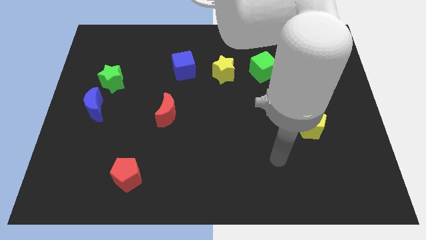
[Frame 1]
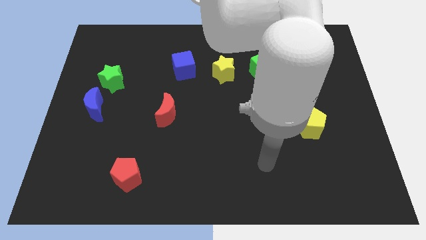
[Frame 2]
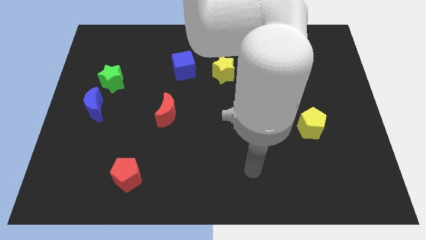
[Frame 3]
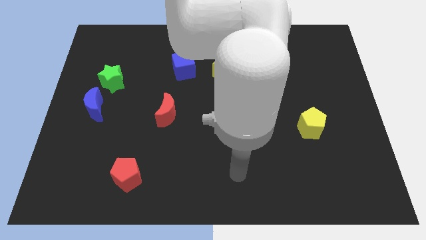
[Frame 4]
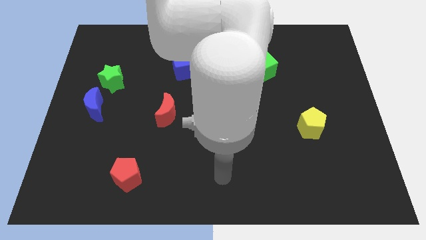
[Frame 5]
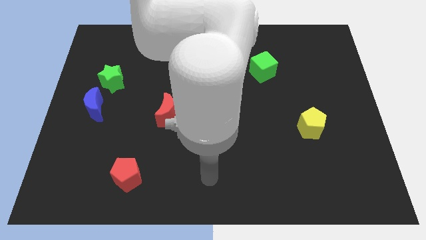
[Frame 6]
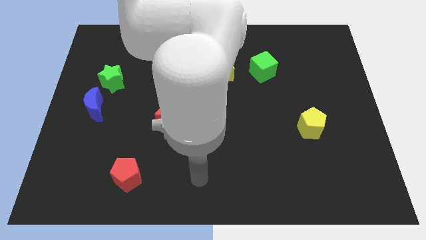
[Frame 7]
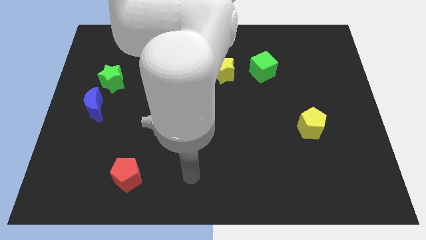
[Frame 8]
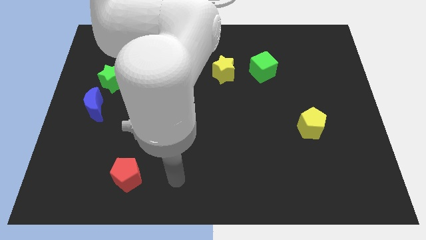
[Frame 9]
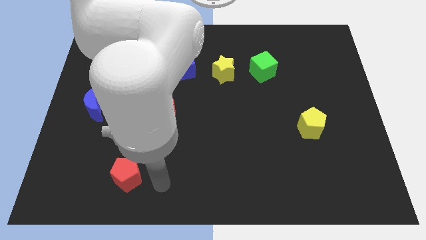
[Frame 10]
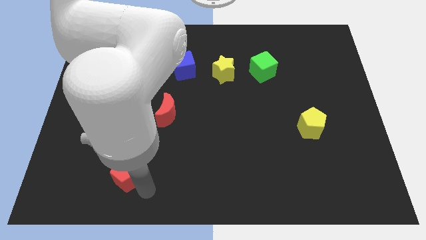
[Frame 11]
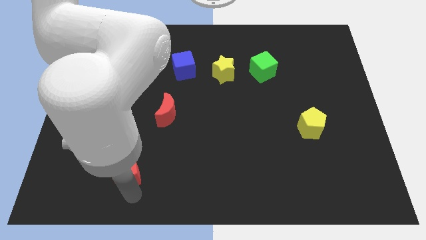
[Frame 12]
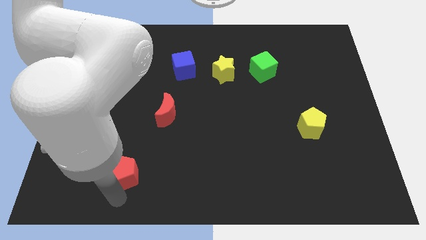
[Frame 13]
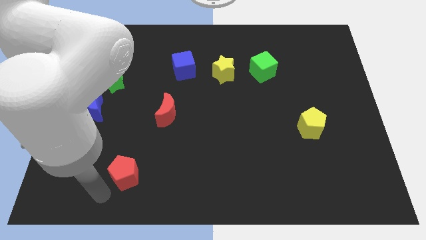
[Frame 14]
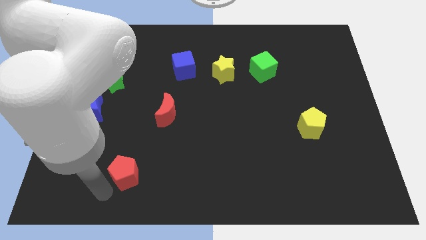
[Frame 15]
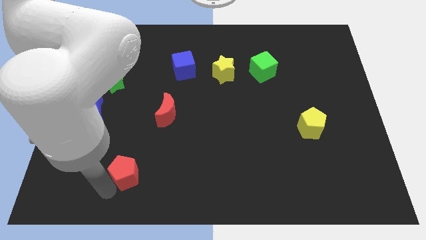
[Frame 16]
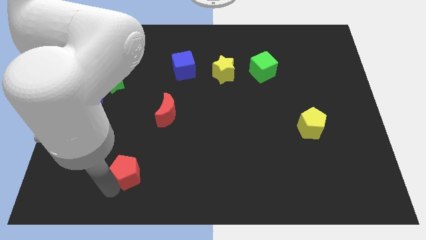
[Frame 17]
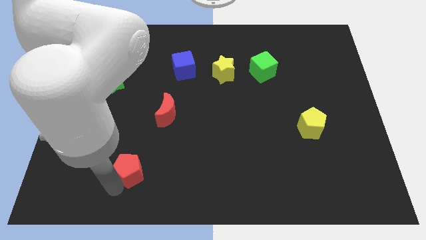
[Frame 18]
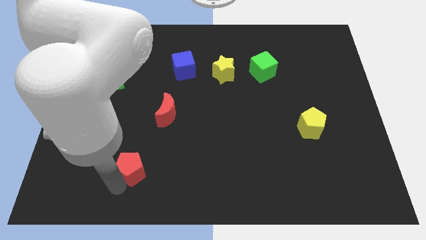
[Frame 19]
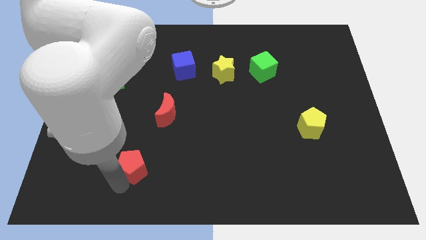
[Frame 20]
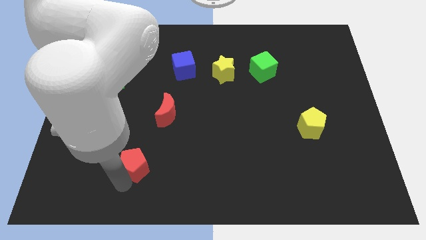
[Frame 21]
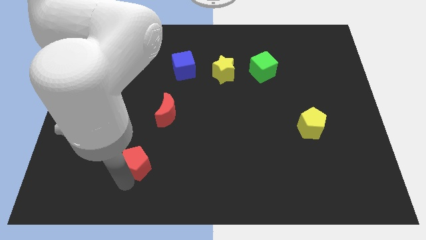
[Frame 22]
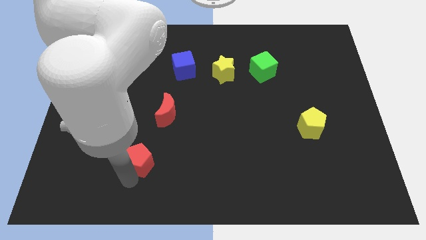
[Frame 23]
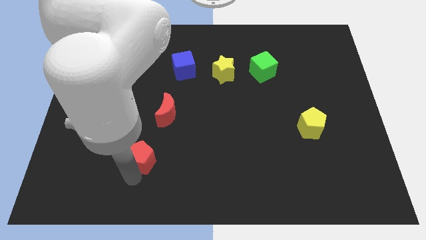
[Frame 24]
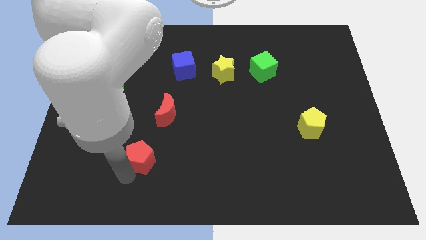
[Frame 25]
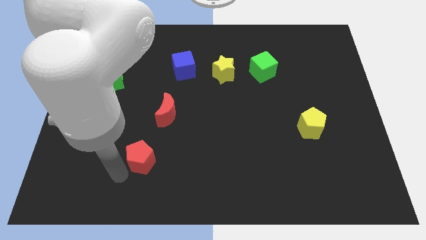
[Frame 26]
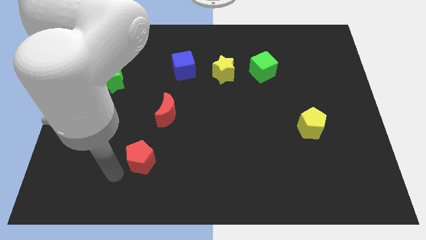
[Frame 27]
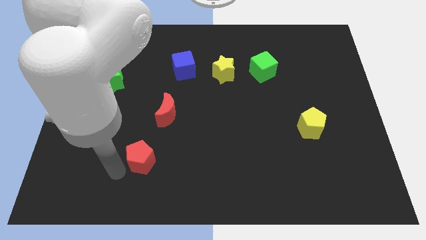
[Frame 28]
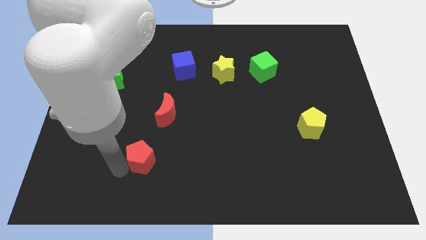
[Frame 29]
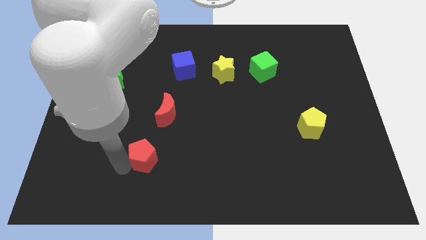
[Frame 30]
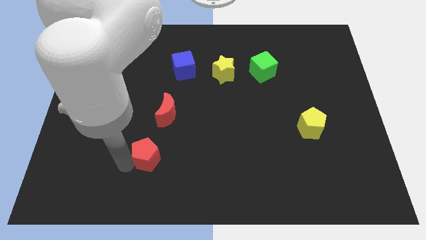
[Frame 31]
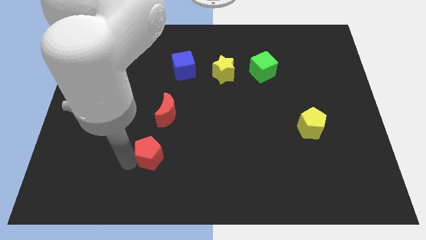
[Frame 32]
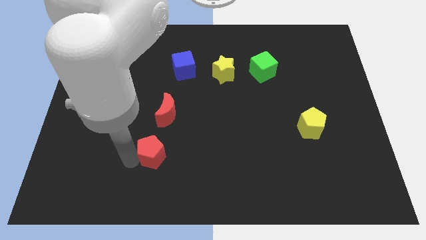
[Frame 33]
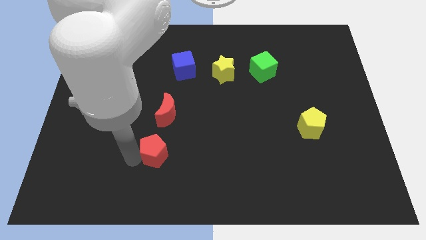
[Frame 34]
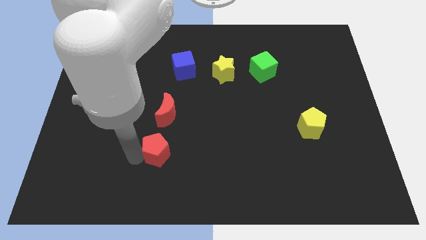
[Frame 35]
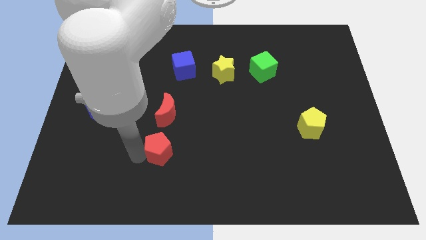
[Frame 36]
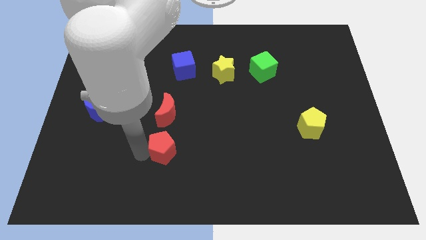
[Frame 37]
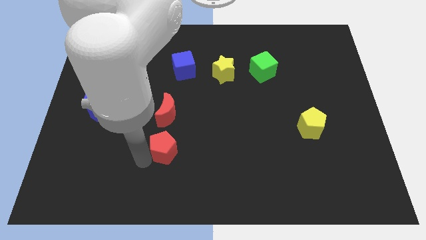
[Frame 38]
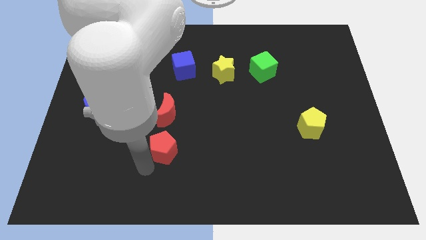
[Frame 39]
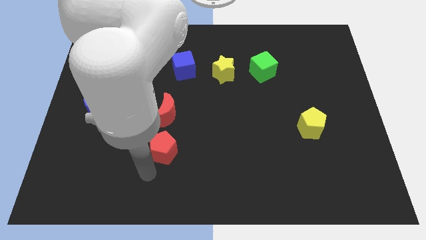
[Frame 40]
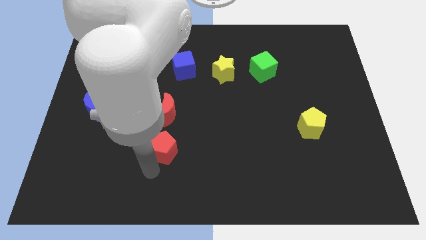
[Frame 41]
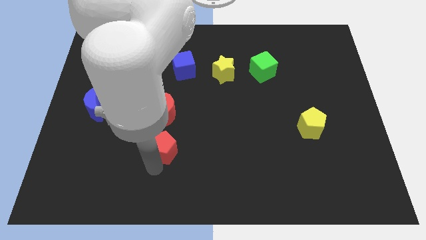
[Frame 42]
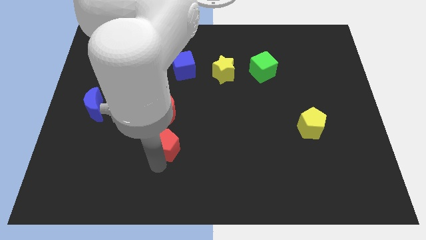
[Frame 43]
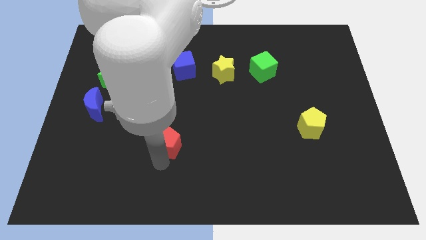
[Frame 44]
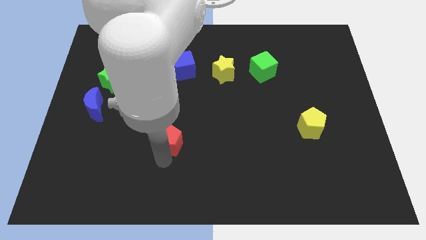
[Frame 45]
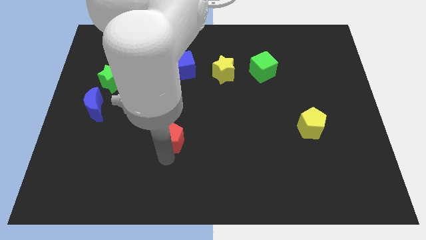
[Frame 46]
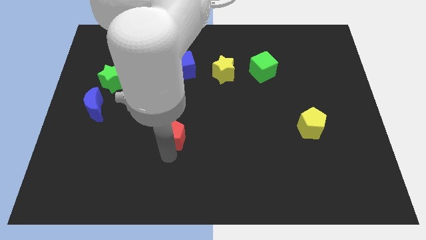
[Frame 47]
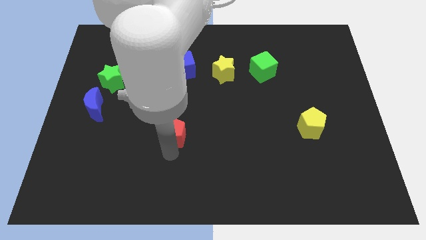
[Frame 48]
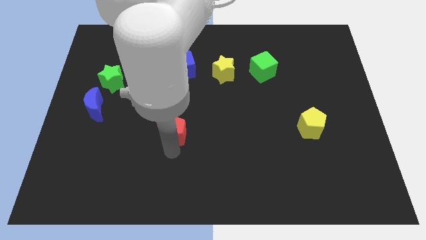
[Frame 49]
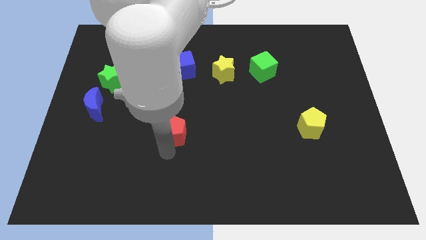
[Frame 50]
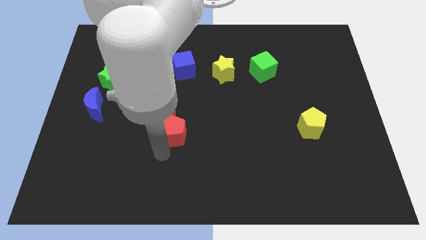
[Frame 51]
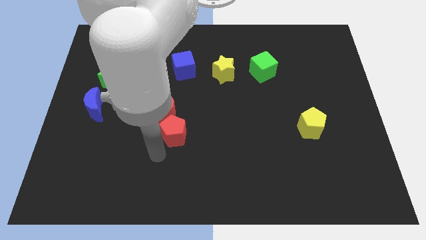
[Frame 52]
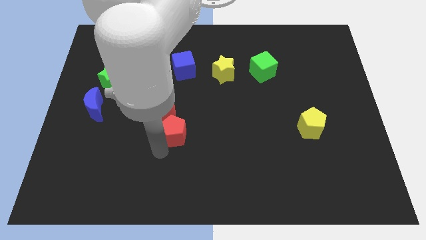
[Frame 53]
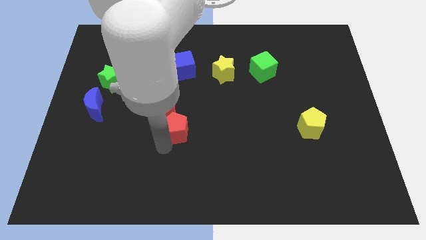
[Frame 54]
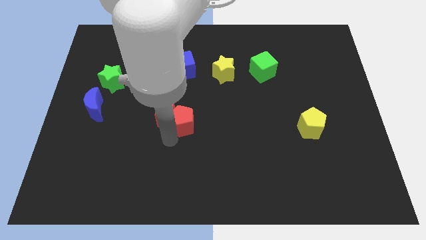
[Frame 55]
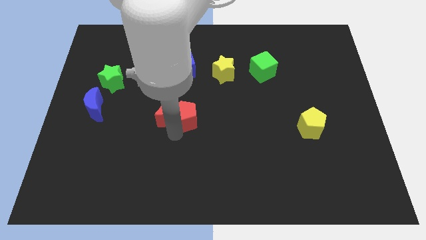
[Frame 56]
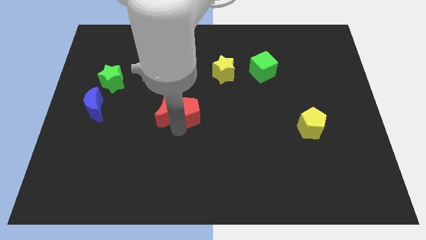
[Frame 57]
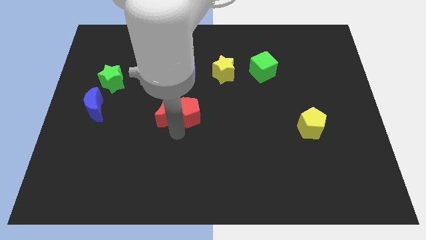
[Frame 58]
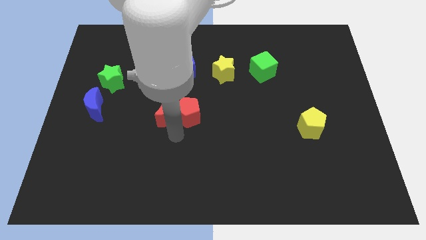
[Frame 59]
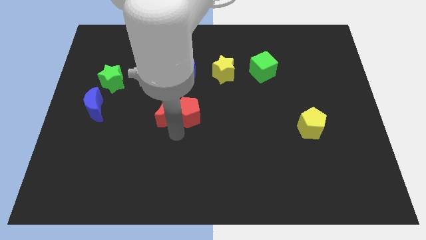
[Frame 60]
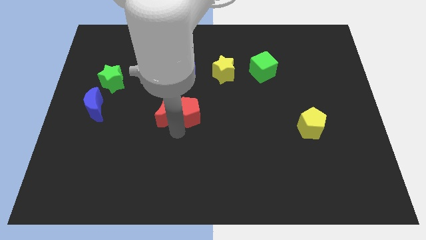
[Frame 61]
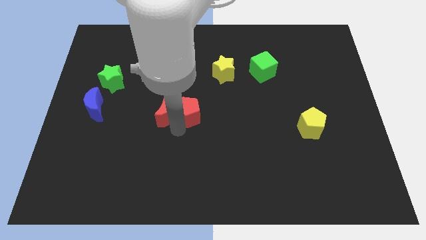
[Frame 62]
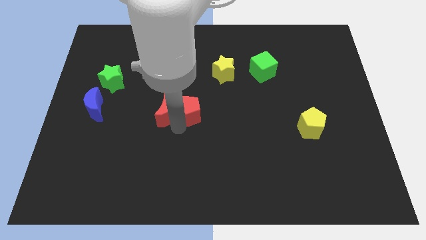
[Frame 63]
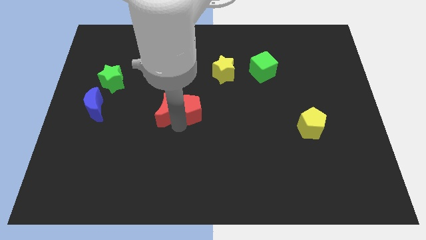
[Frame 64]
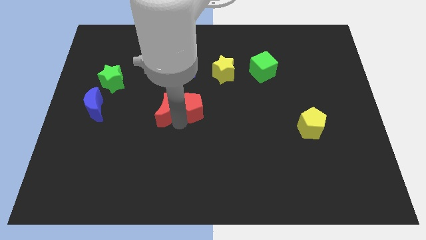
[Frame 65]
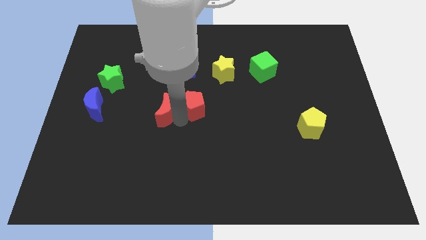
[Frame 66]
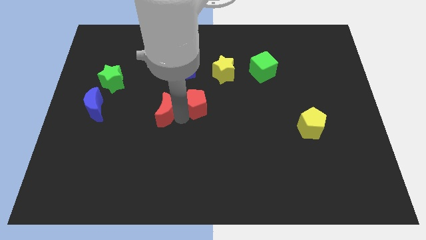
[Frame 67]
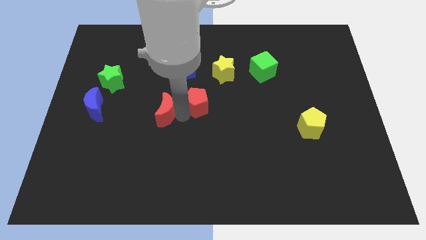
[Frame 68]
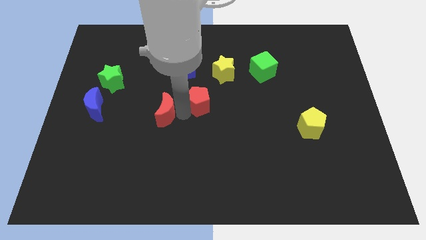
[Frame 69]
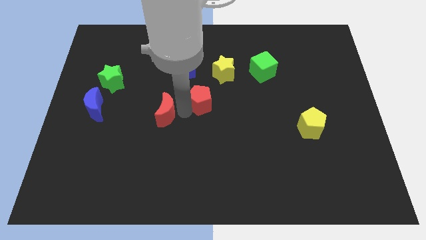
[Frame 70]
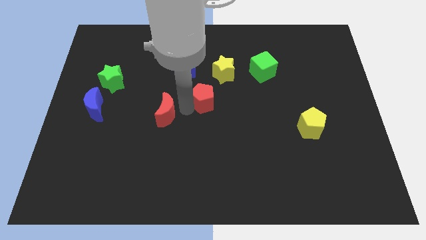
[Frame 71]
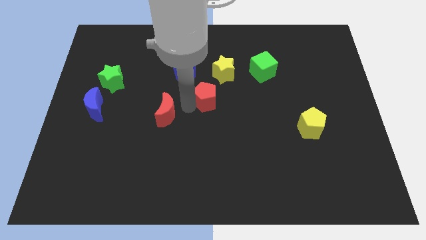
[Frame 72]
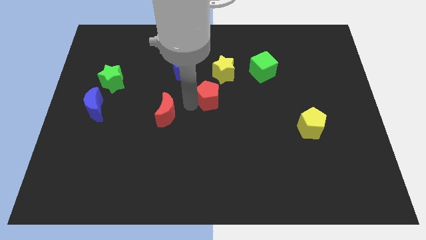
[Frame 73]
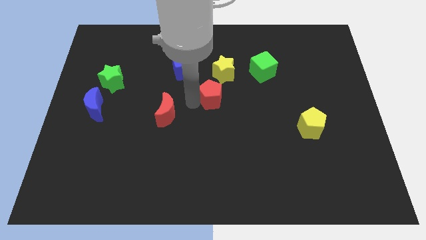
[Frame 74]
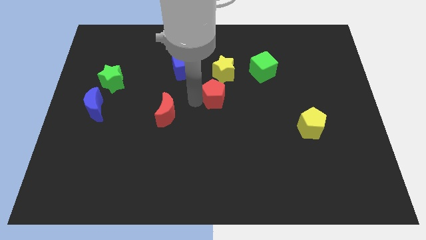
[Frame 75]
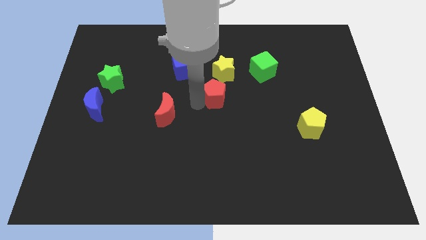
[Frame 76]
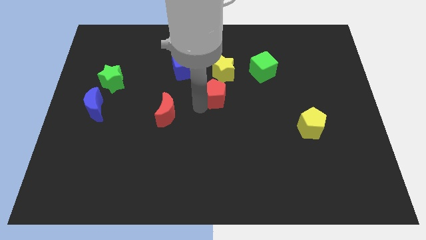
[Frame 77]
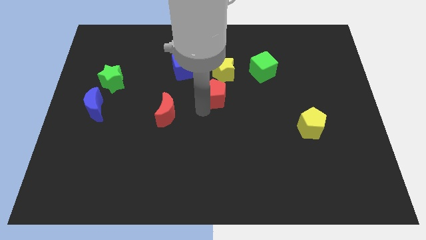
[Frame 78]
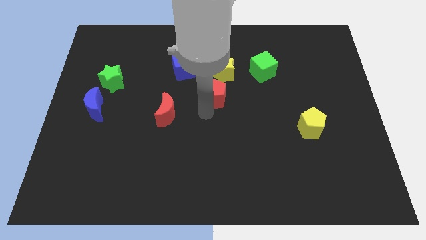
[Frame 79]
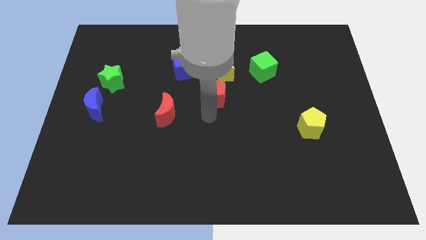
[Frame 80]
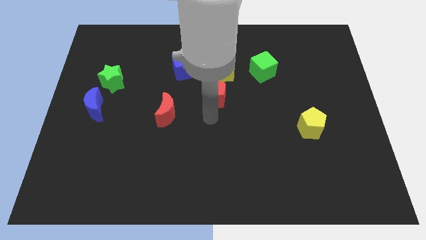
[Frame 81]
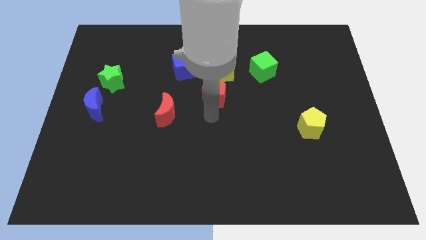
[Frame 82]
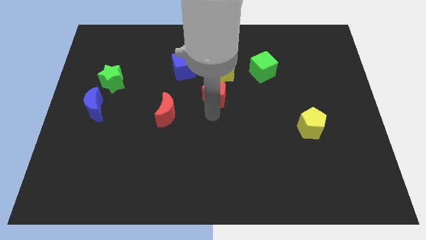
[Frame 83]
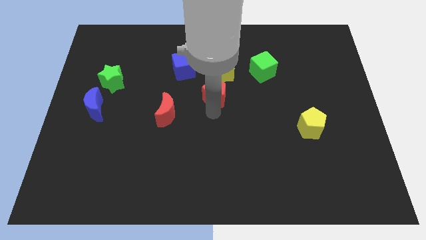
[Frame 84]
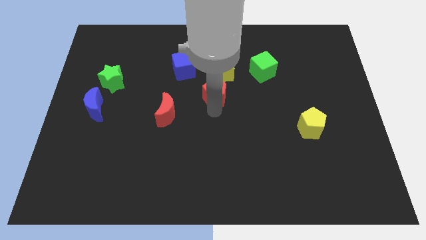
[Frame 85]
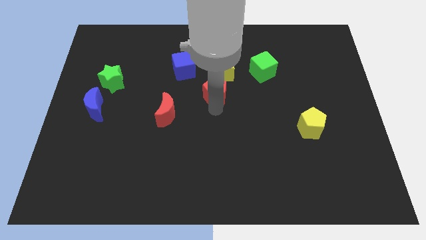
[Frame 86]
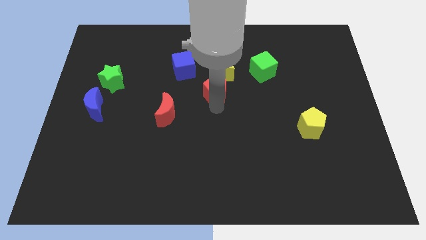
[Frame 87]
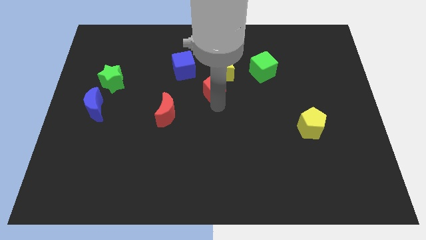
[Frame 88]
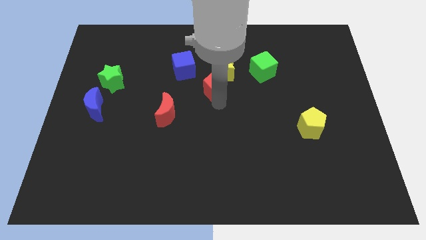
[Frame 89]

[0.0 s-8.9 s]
put the red pentagon next to the yellow star
